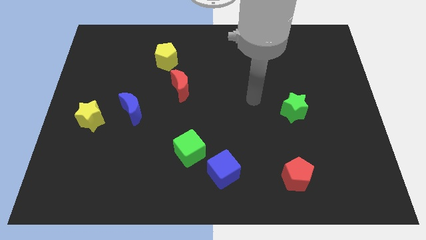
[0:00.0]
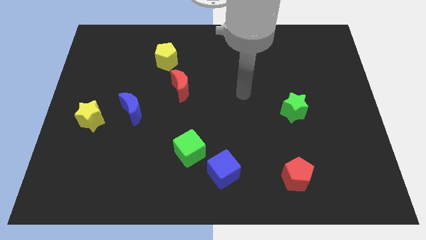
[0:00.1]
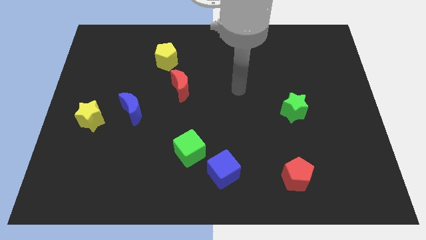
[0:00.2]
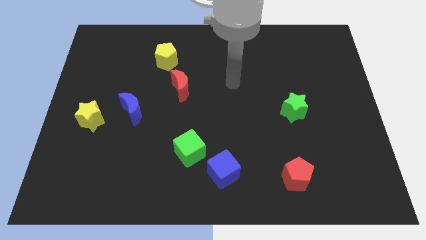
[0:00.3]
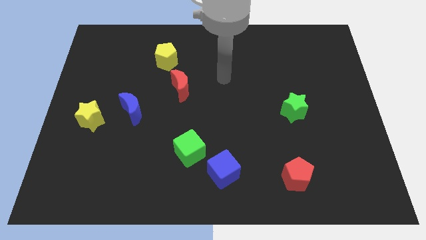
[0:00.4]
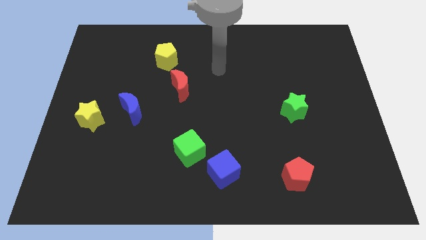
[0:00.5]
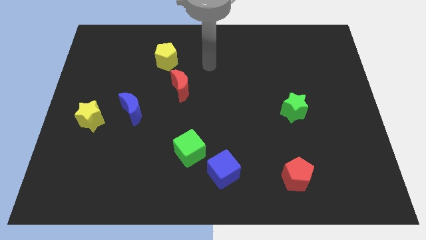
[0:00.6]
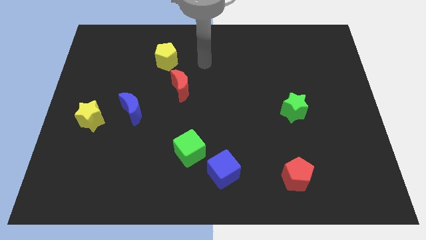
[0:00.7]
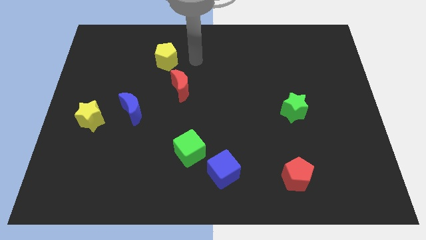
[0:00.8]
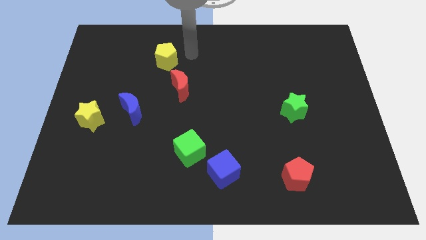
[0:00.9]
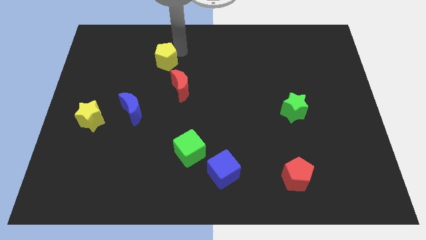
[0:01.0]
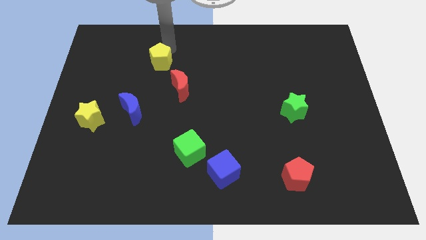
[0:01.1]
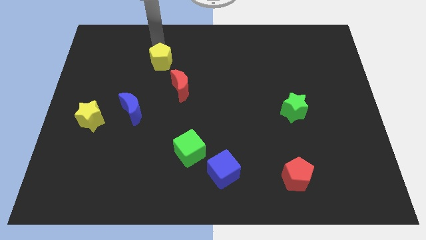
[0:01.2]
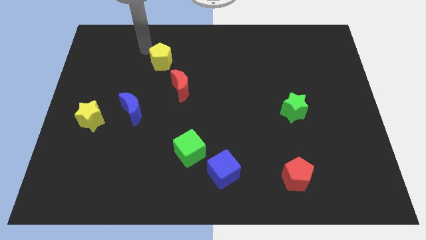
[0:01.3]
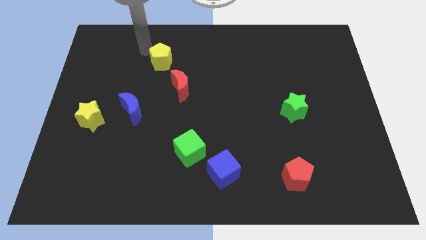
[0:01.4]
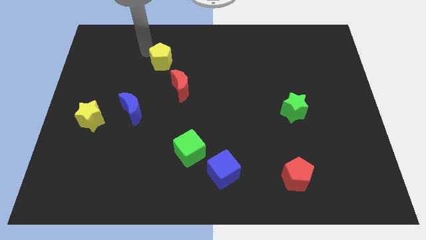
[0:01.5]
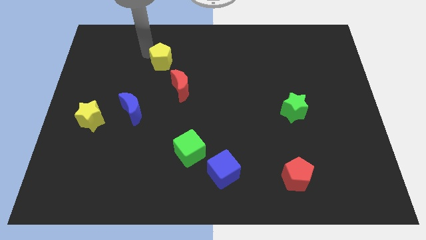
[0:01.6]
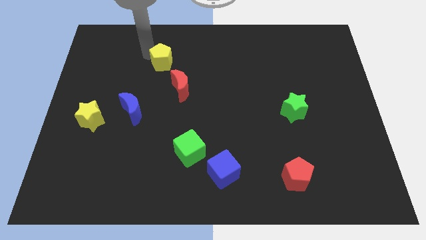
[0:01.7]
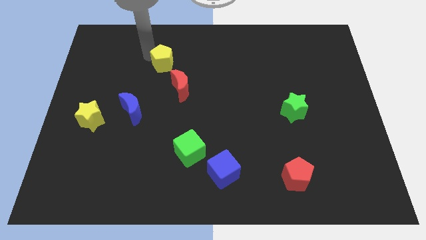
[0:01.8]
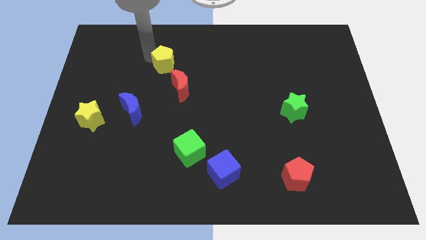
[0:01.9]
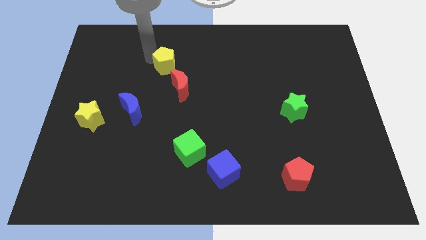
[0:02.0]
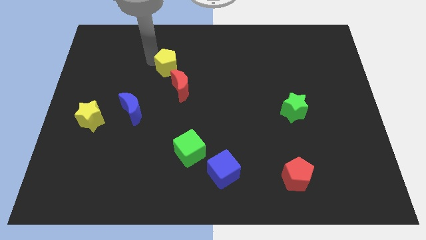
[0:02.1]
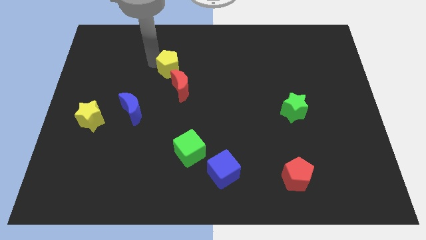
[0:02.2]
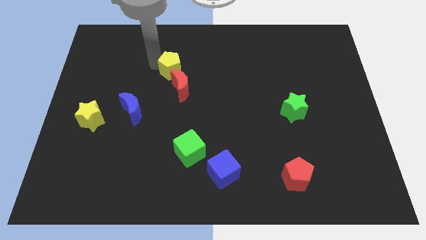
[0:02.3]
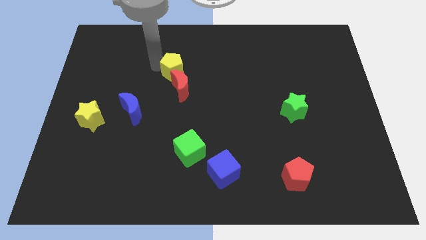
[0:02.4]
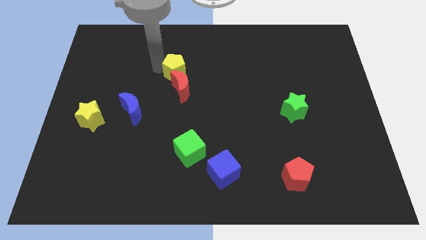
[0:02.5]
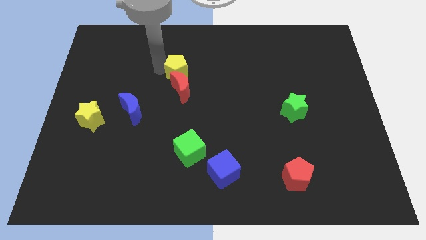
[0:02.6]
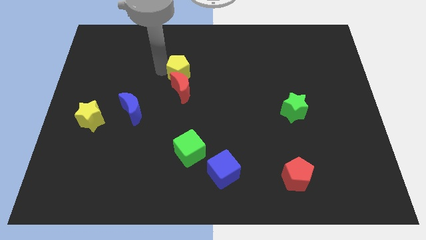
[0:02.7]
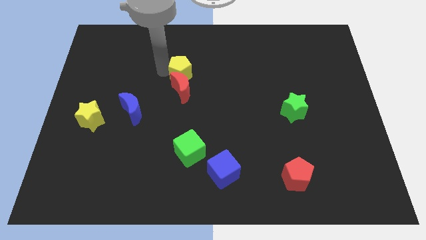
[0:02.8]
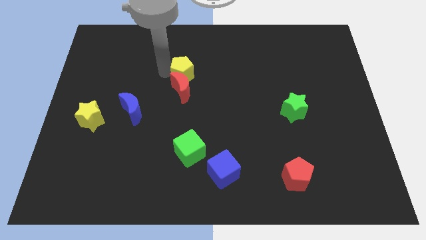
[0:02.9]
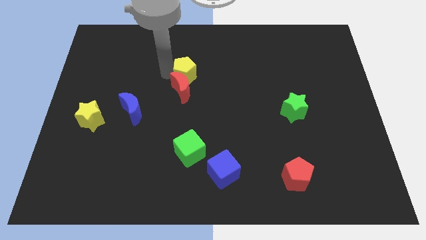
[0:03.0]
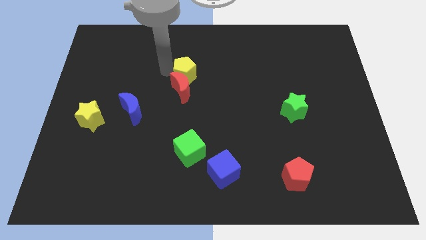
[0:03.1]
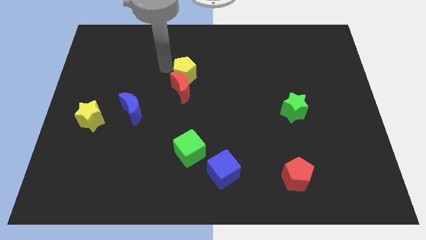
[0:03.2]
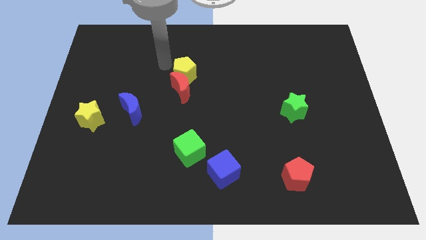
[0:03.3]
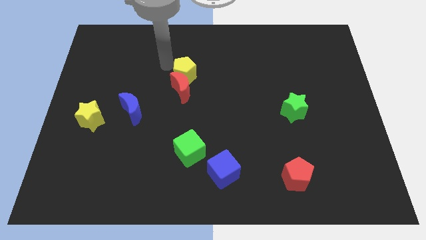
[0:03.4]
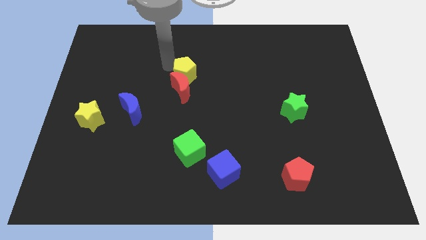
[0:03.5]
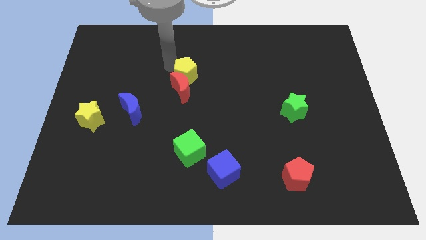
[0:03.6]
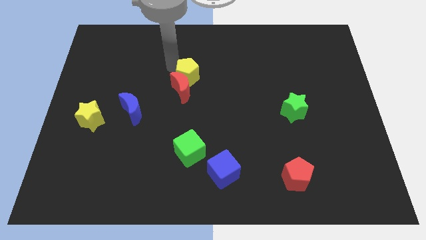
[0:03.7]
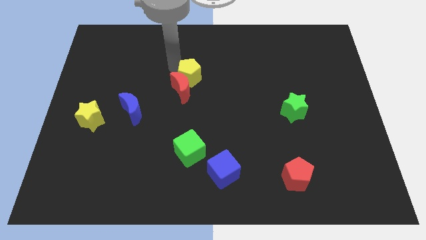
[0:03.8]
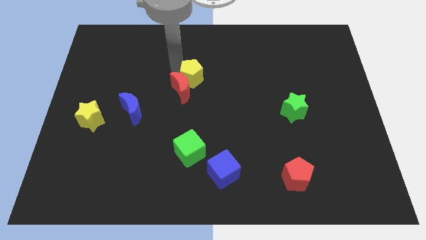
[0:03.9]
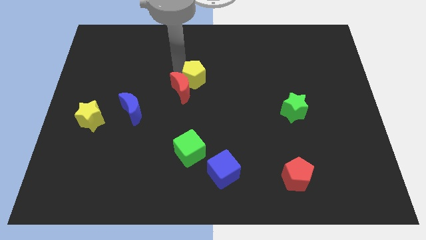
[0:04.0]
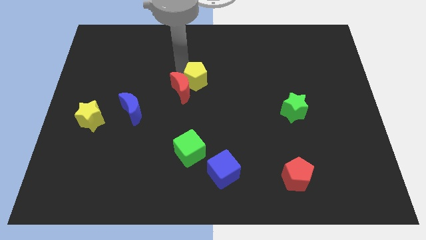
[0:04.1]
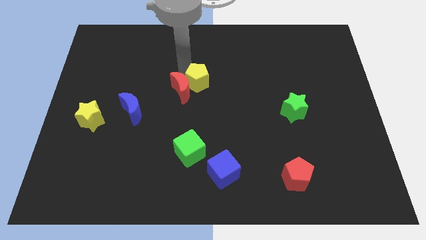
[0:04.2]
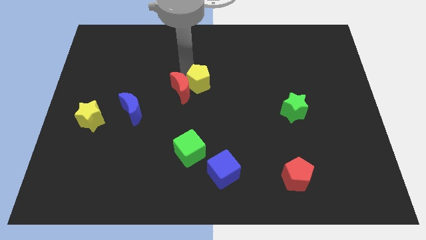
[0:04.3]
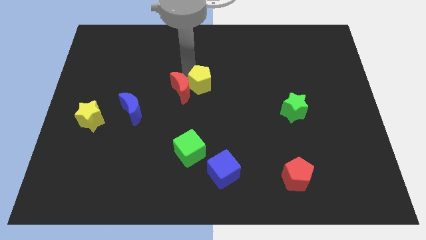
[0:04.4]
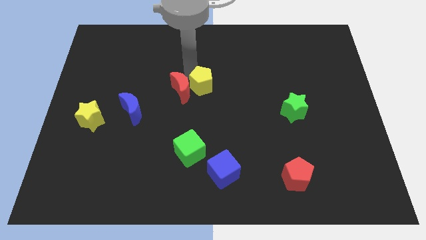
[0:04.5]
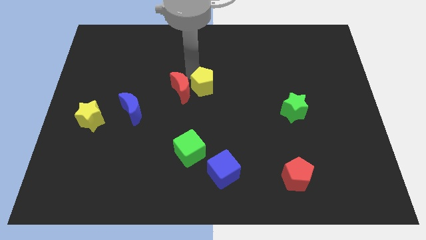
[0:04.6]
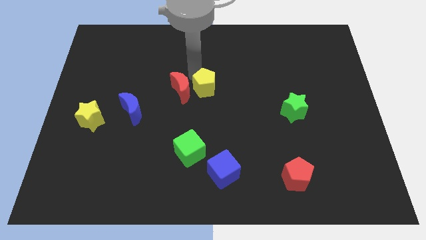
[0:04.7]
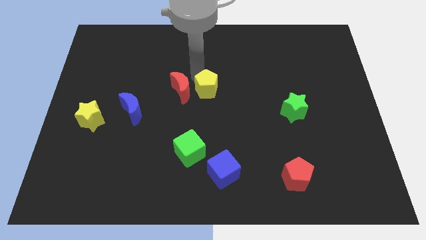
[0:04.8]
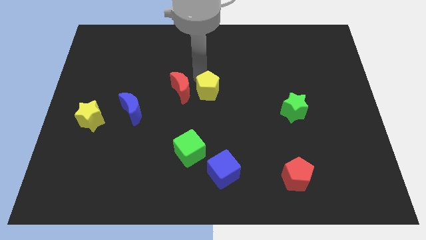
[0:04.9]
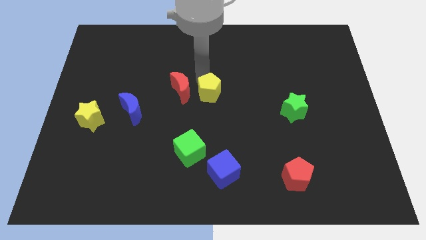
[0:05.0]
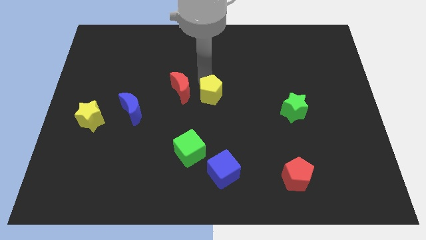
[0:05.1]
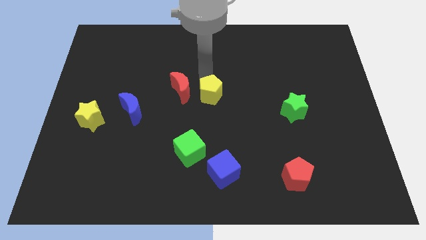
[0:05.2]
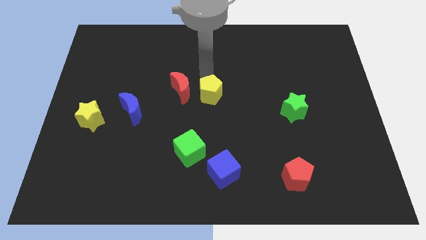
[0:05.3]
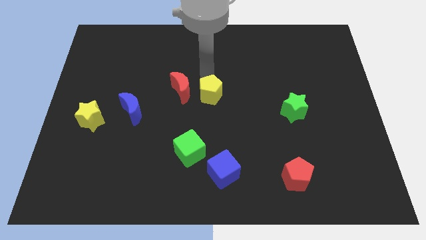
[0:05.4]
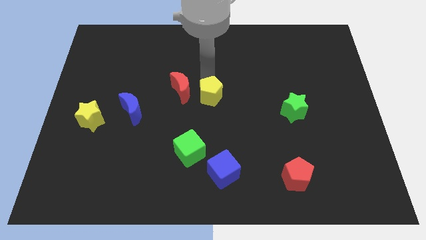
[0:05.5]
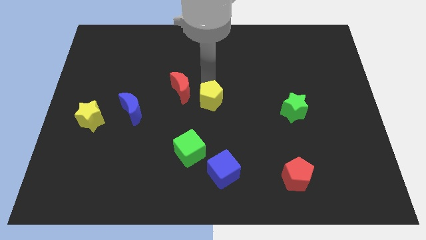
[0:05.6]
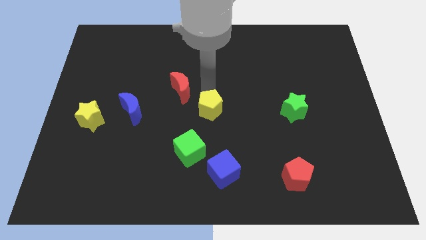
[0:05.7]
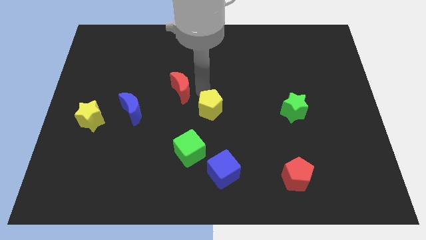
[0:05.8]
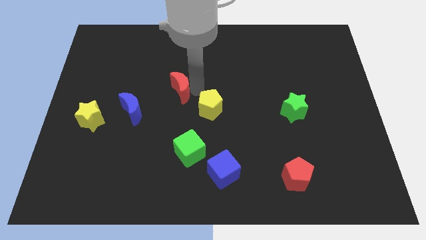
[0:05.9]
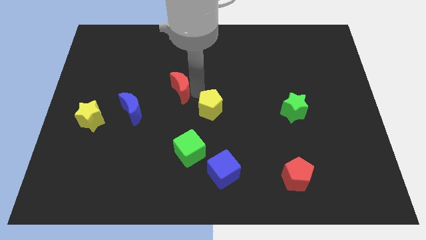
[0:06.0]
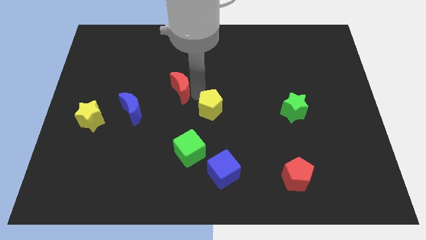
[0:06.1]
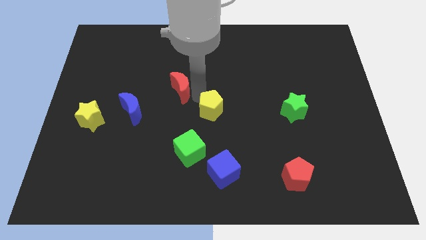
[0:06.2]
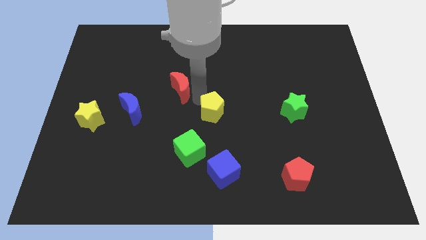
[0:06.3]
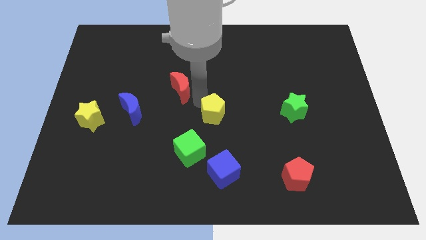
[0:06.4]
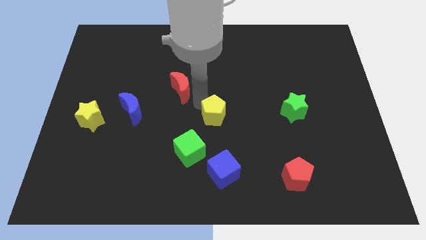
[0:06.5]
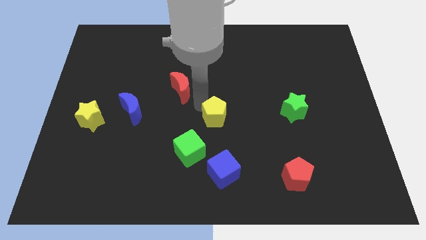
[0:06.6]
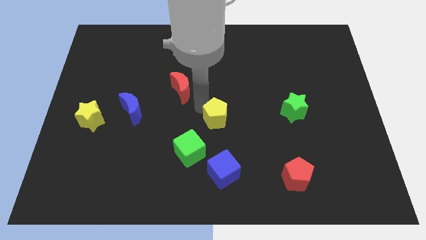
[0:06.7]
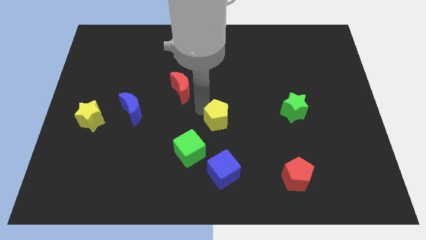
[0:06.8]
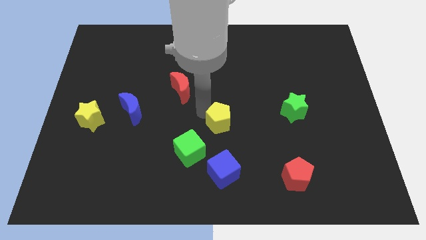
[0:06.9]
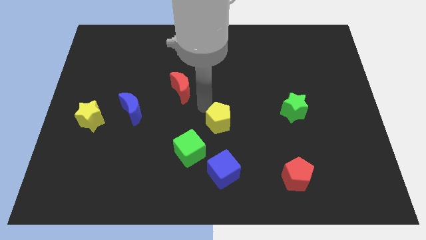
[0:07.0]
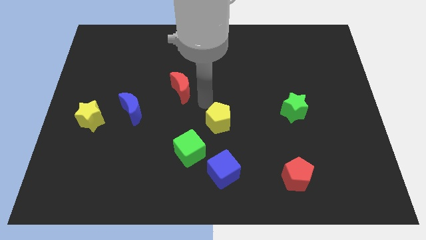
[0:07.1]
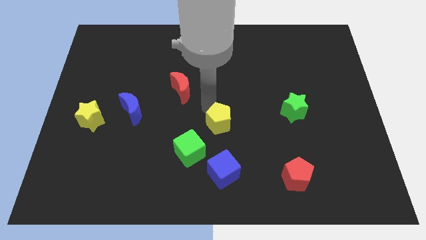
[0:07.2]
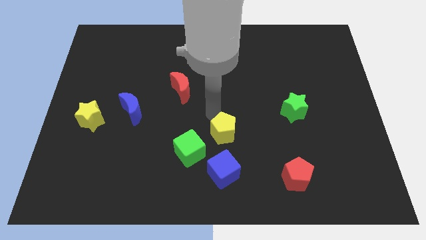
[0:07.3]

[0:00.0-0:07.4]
push the yellow pentagon to the right side of the green cube
